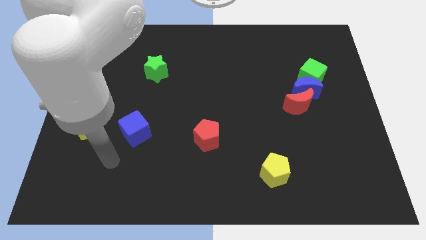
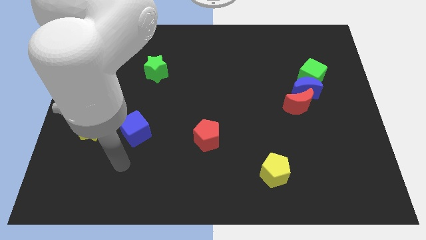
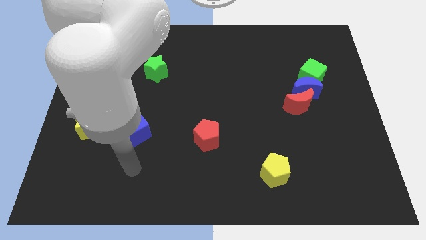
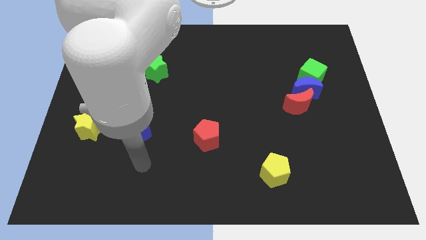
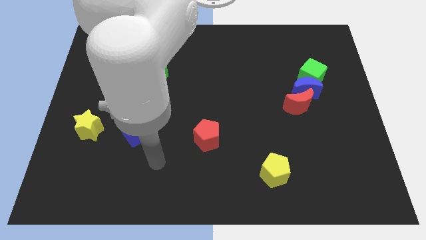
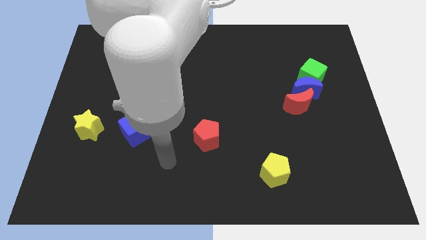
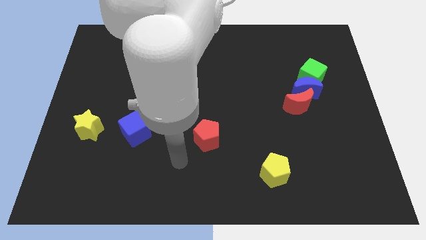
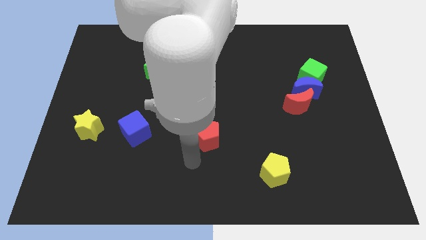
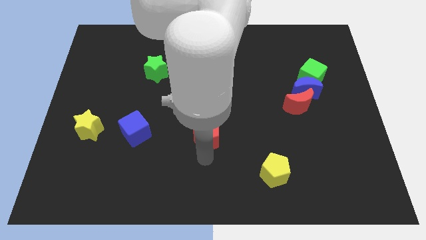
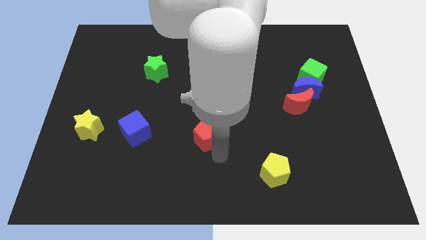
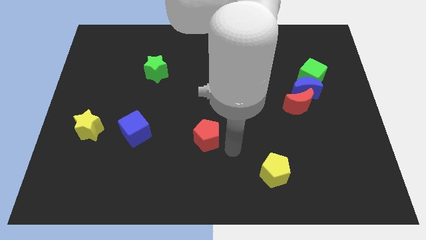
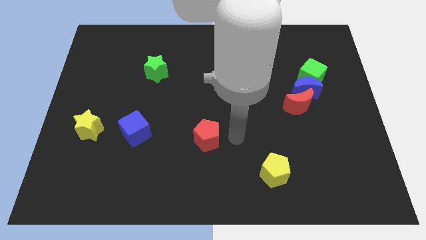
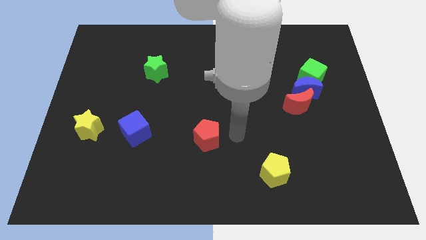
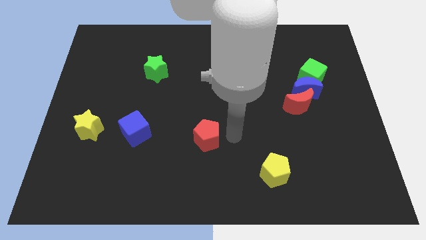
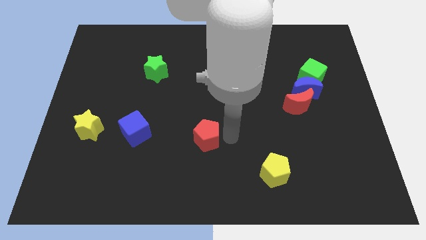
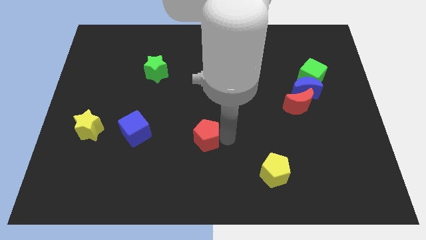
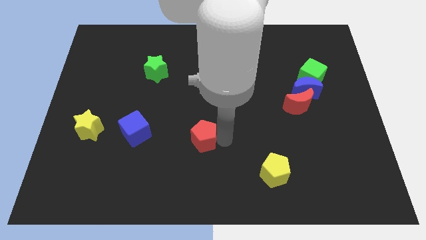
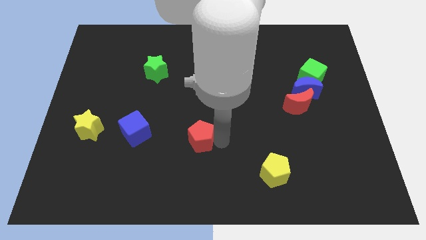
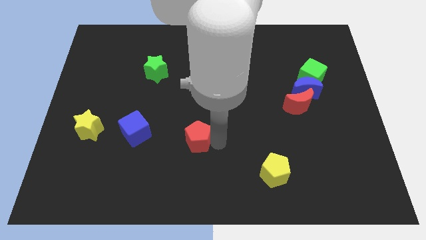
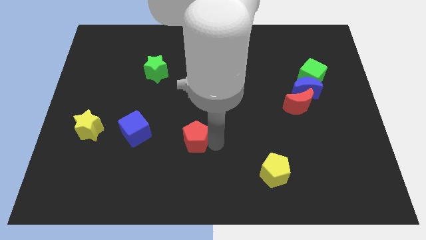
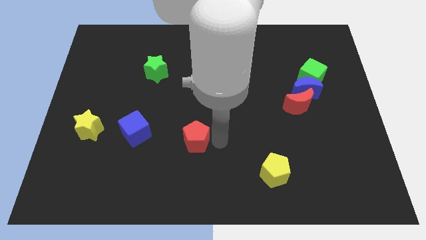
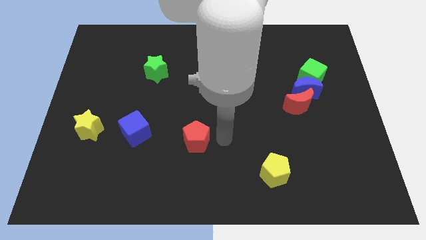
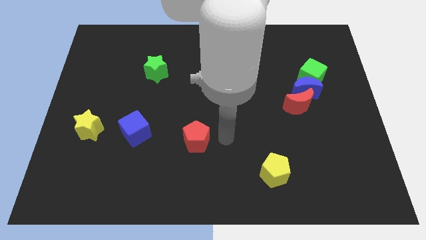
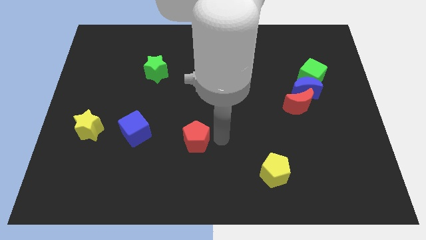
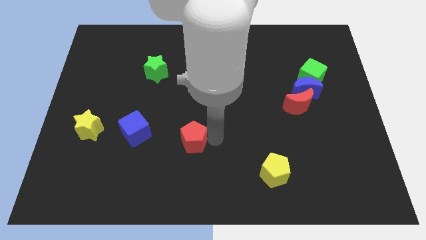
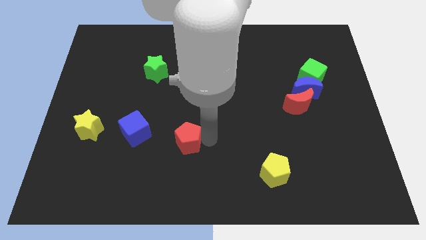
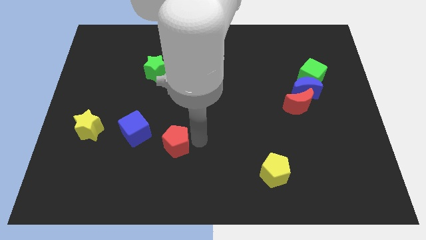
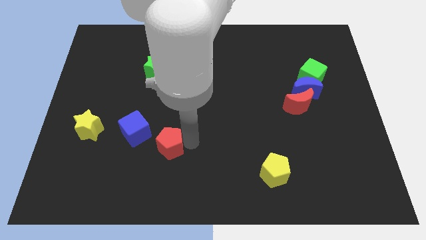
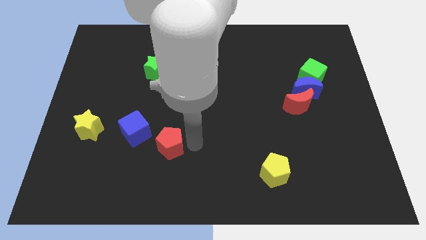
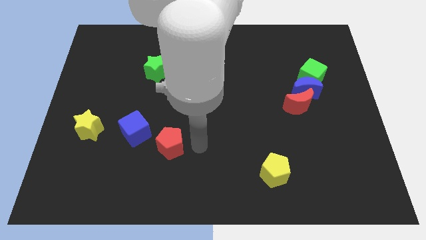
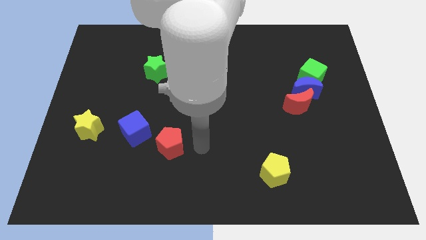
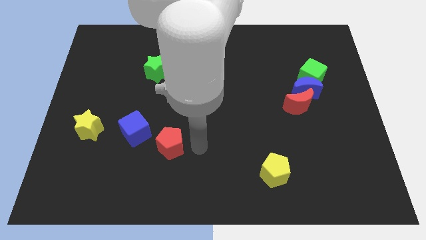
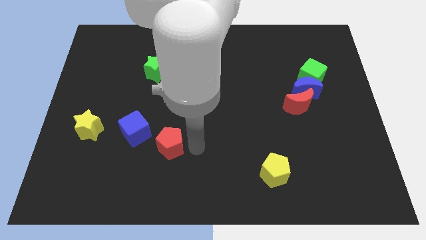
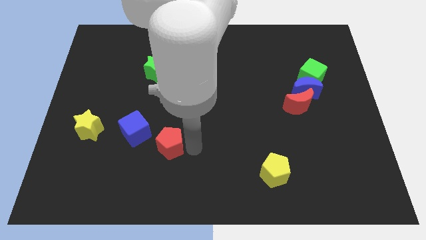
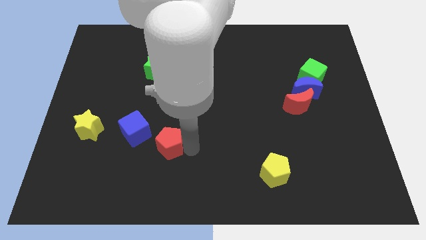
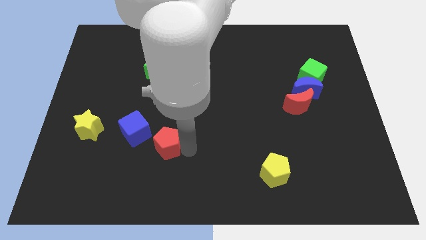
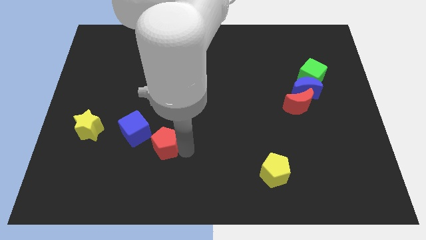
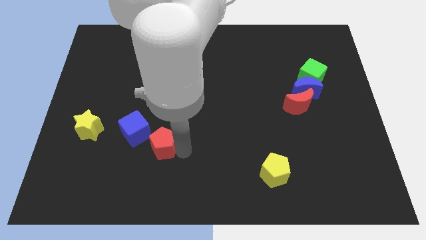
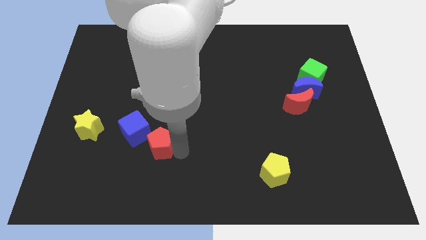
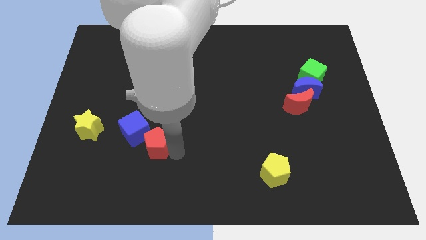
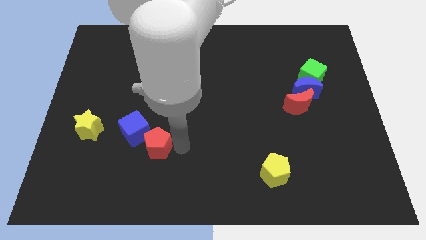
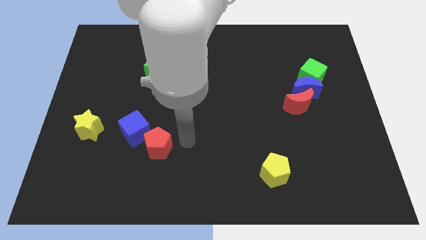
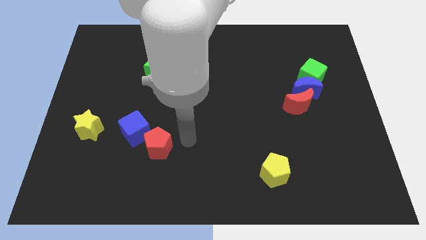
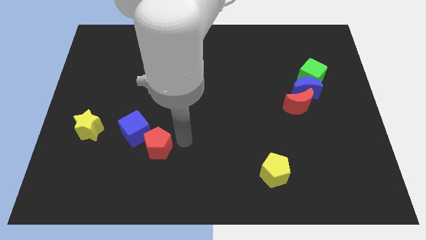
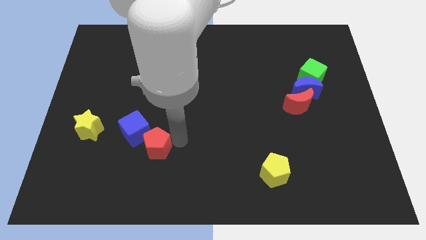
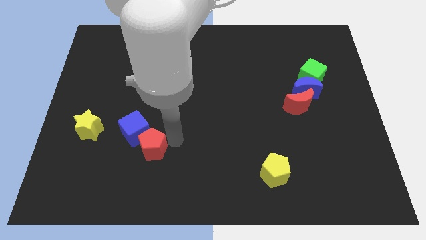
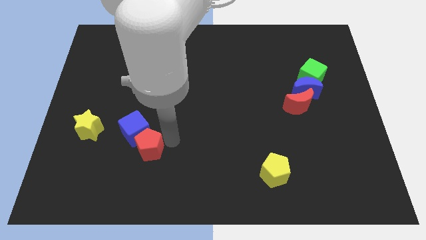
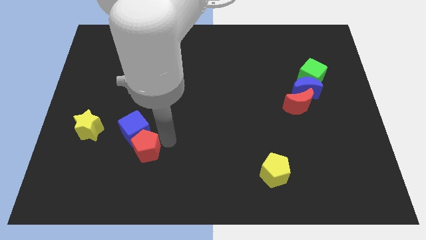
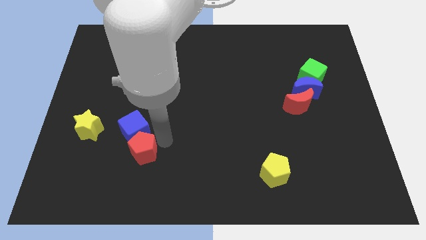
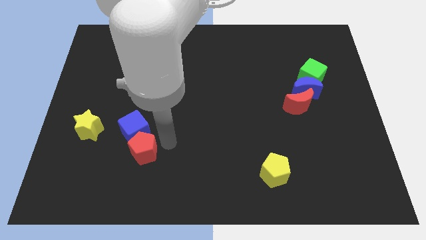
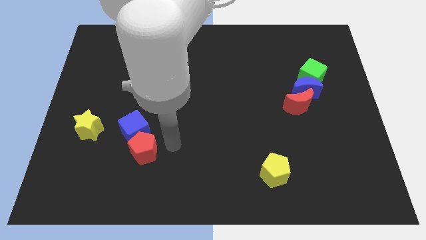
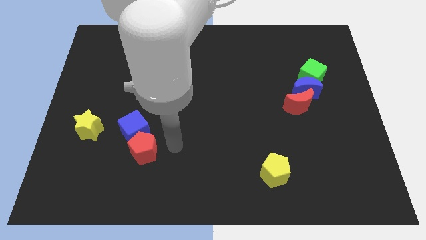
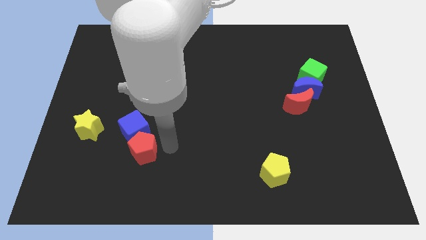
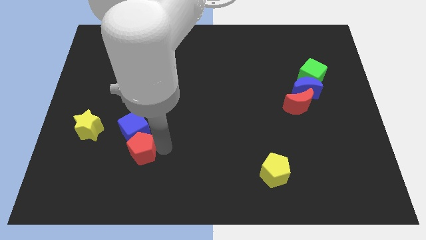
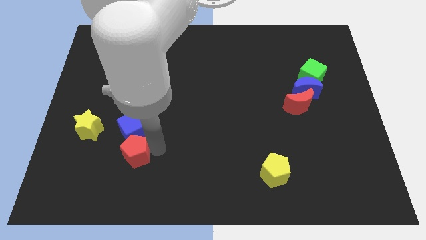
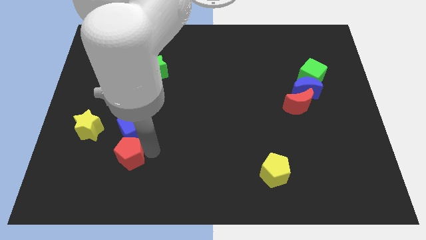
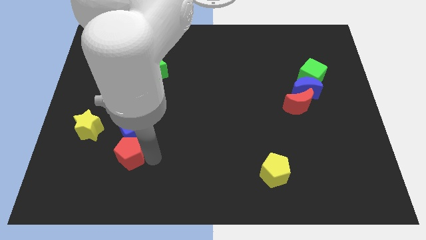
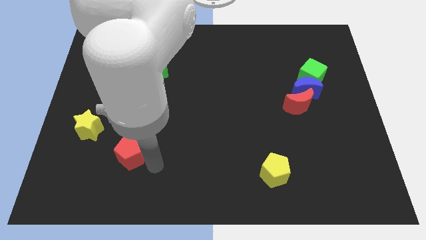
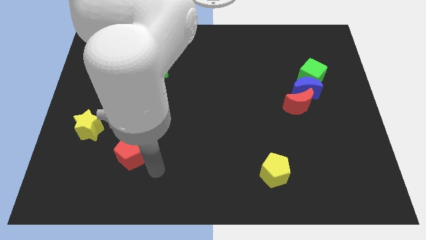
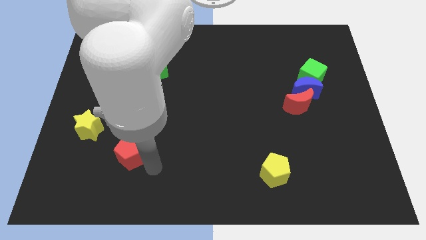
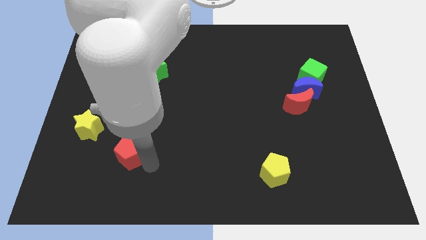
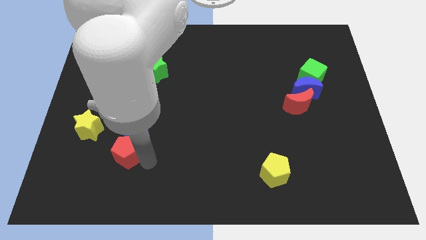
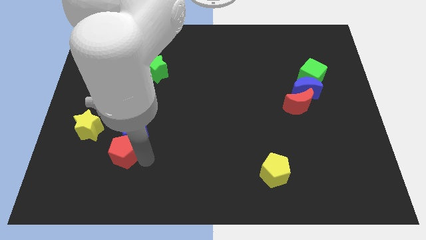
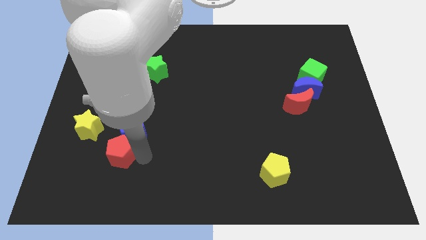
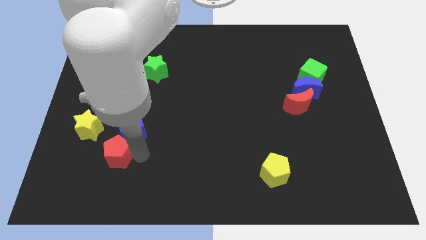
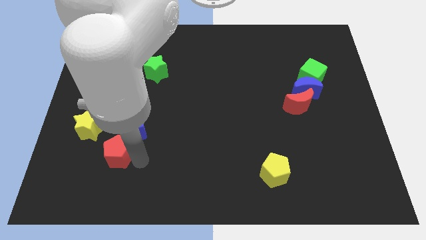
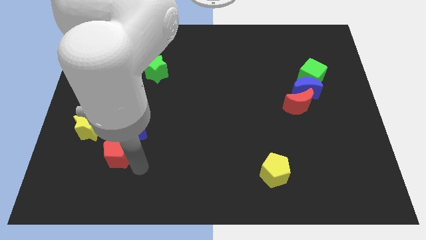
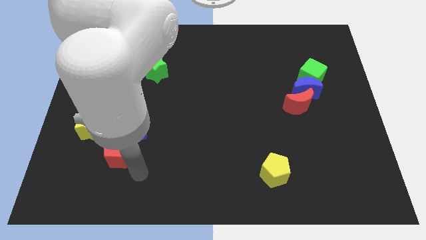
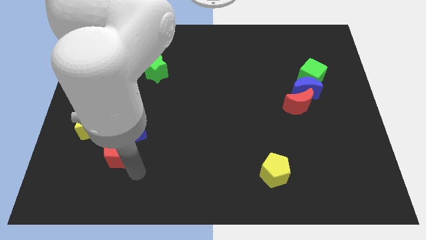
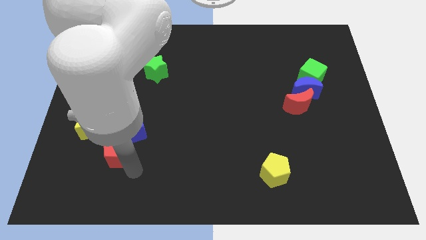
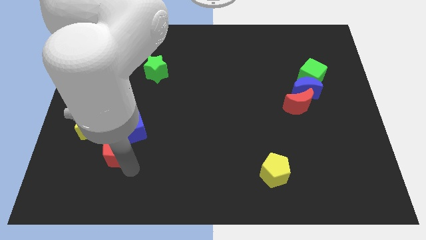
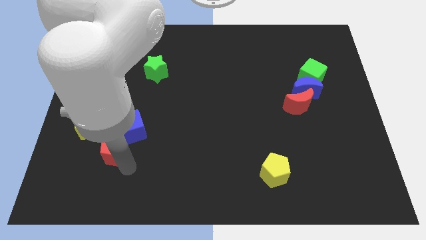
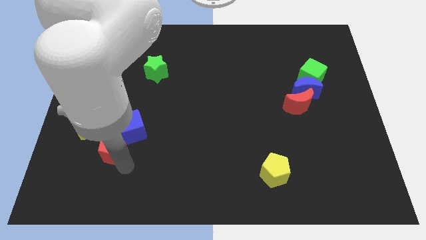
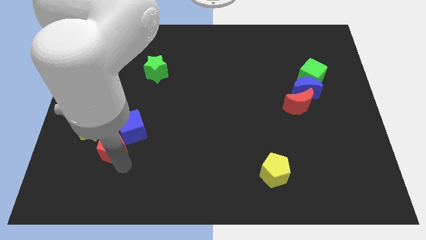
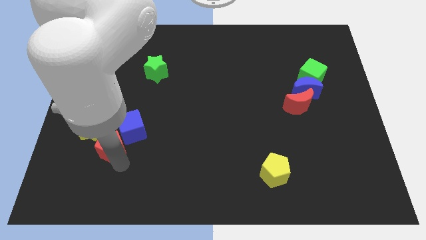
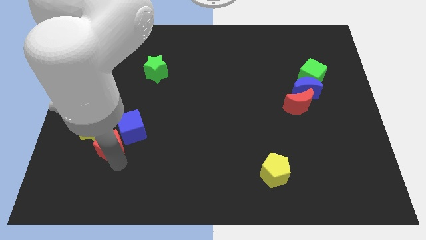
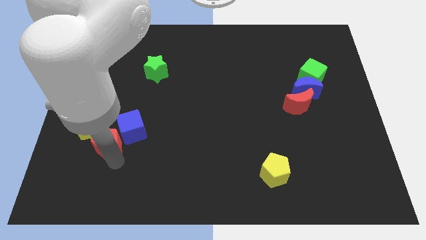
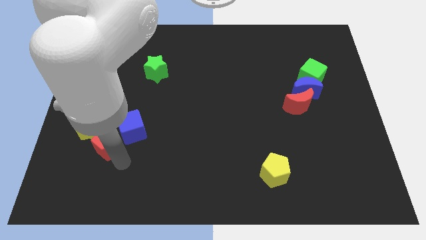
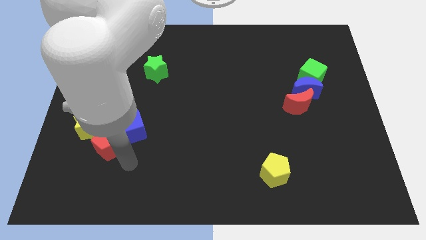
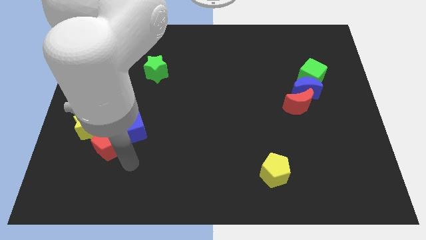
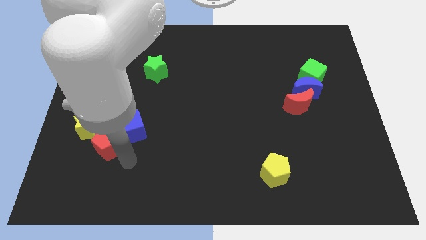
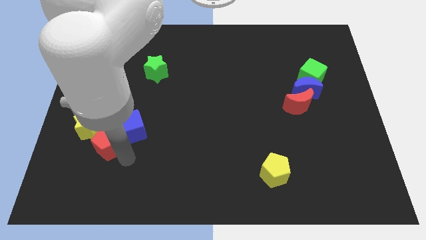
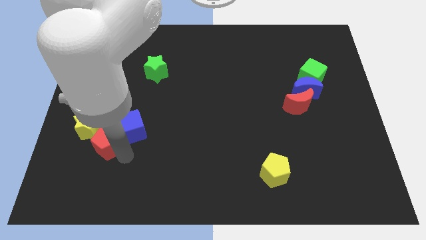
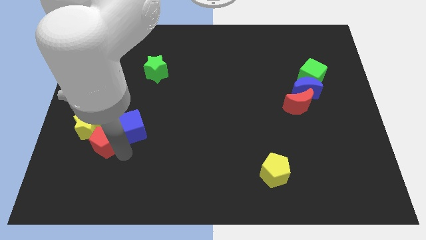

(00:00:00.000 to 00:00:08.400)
move the red pentagon close to the yellow star
